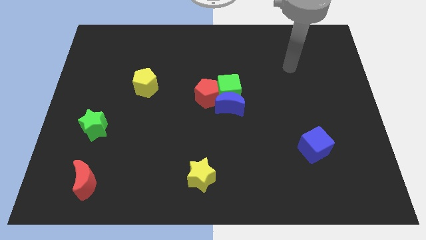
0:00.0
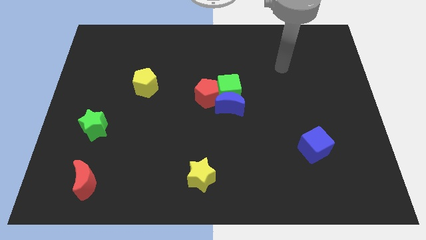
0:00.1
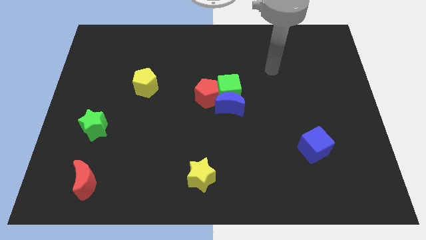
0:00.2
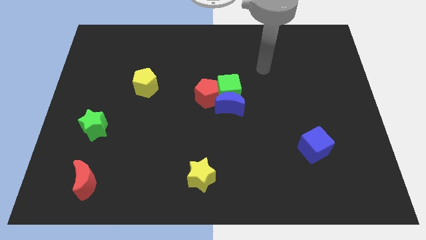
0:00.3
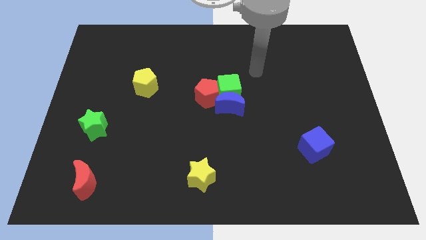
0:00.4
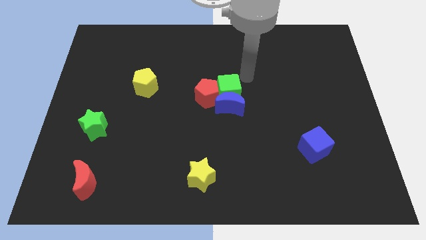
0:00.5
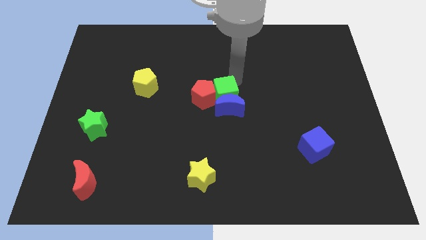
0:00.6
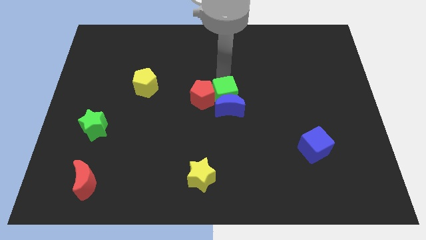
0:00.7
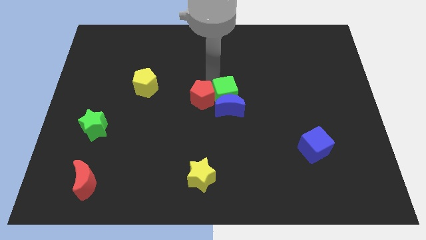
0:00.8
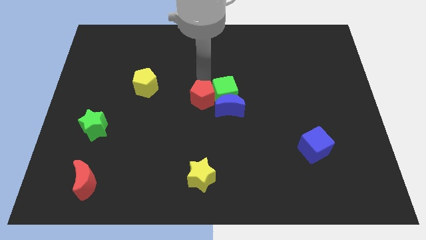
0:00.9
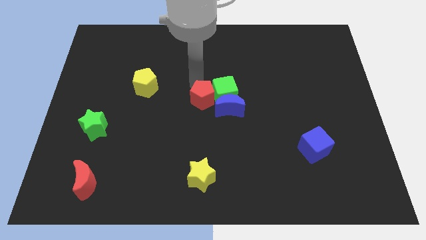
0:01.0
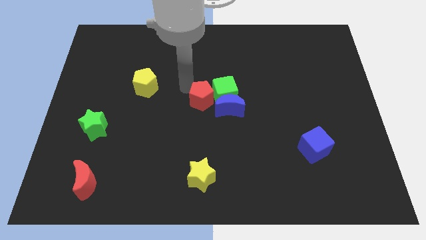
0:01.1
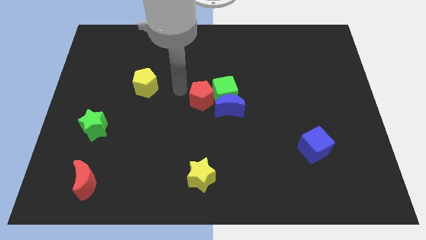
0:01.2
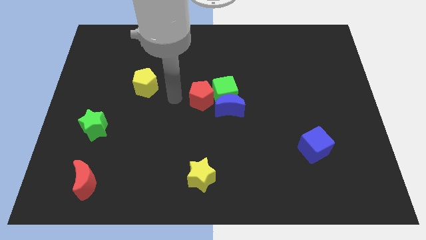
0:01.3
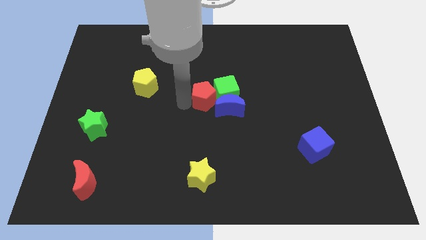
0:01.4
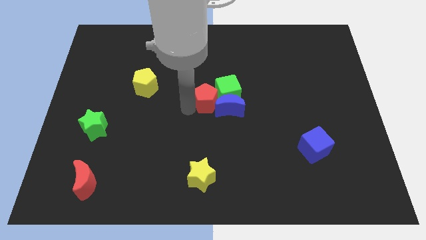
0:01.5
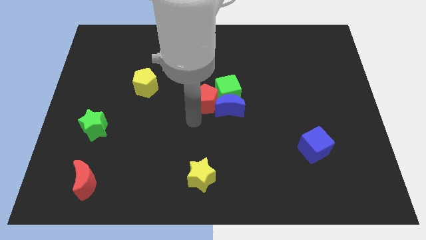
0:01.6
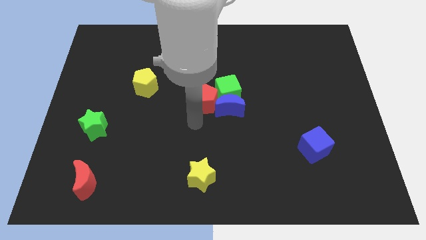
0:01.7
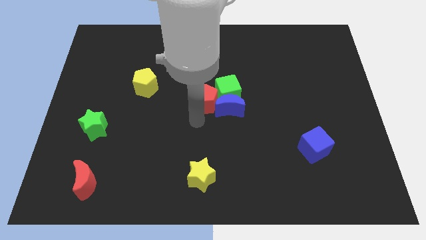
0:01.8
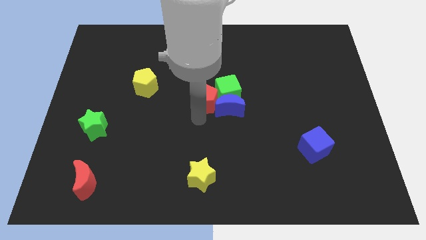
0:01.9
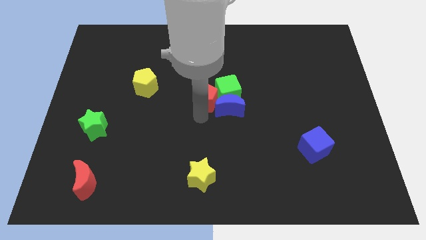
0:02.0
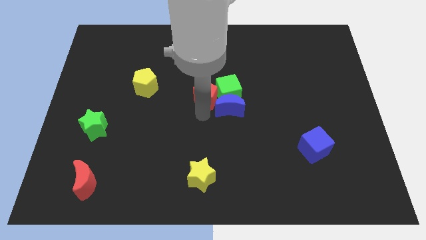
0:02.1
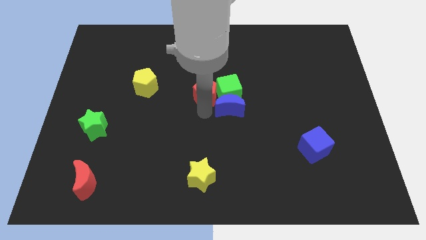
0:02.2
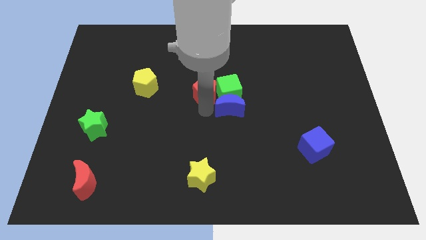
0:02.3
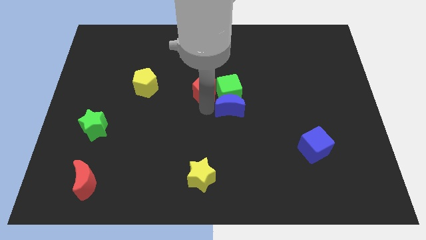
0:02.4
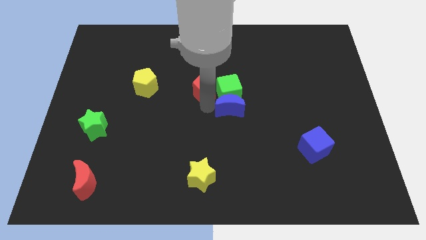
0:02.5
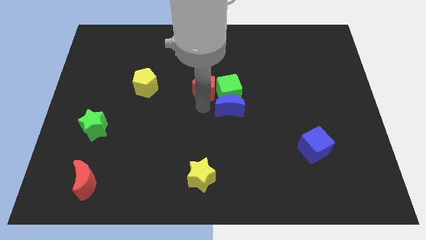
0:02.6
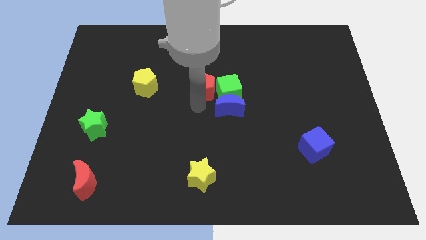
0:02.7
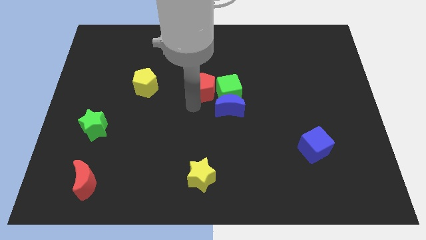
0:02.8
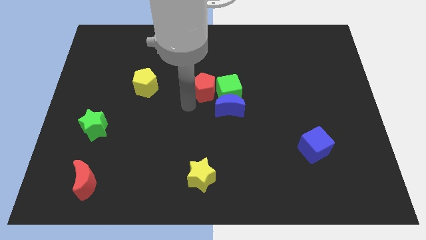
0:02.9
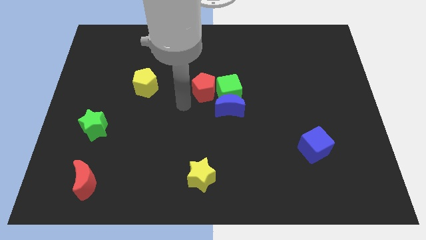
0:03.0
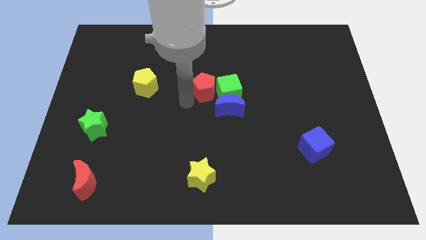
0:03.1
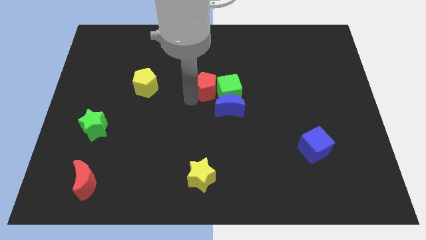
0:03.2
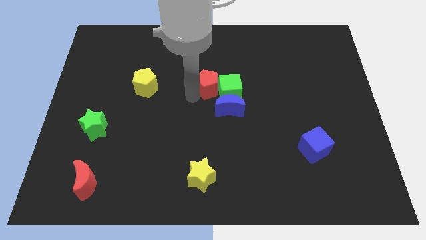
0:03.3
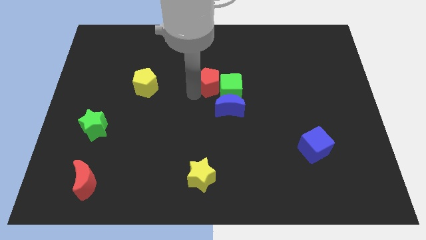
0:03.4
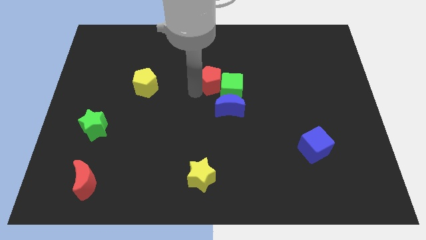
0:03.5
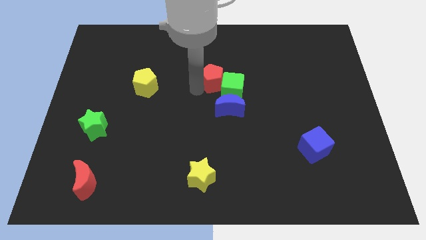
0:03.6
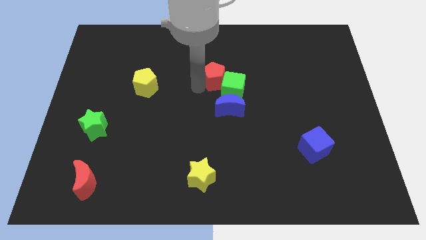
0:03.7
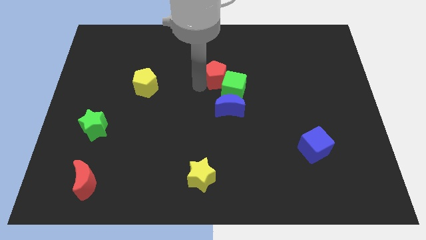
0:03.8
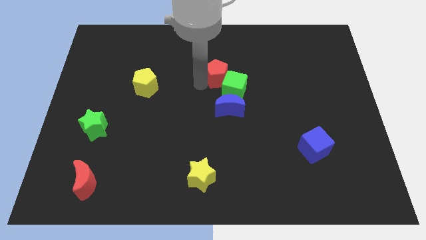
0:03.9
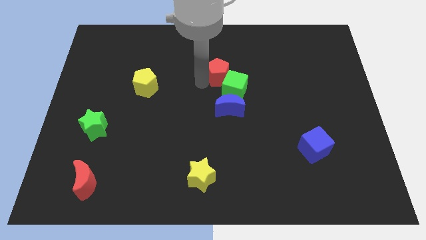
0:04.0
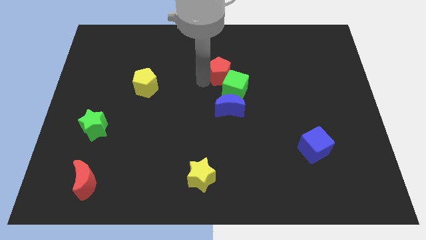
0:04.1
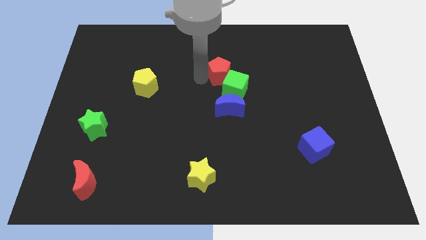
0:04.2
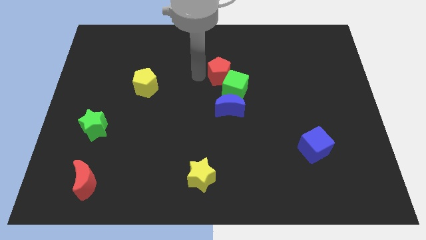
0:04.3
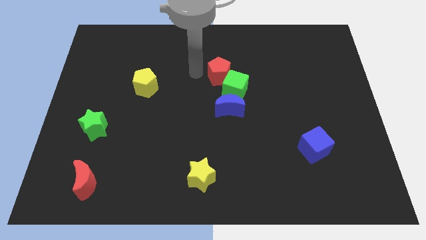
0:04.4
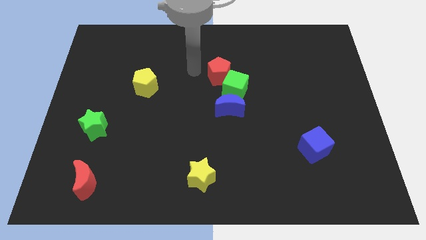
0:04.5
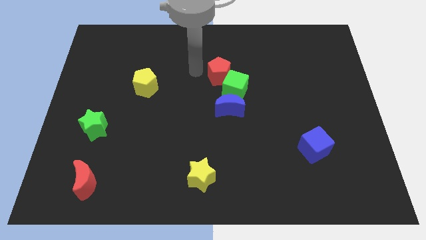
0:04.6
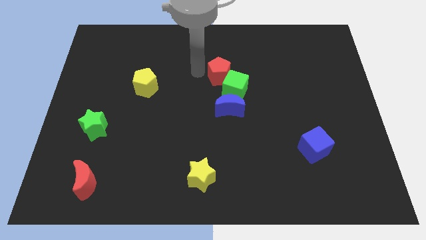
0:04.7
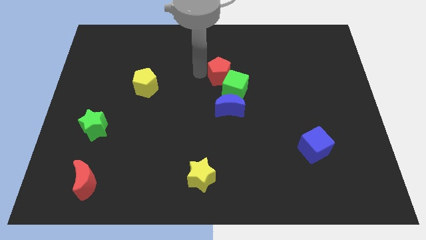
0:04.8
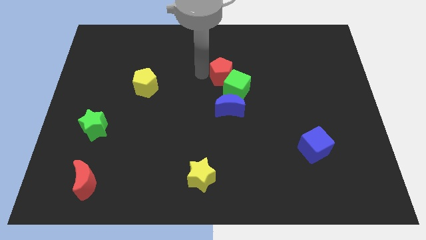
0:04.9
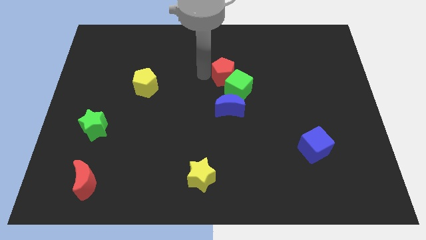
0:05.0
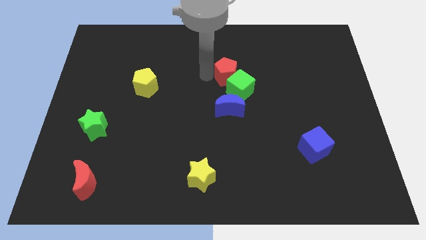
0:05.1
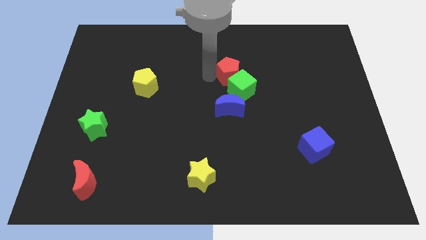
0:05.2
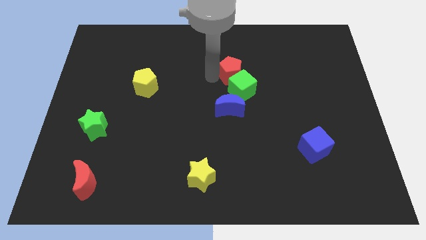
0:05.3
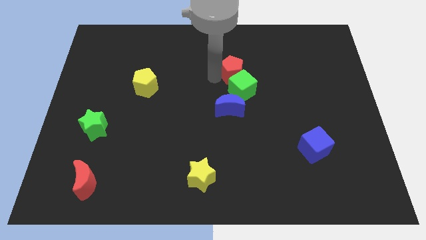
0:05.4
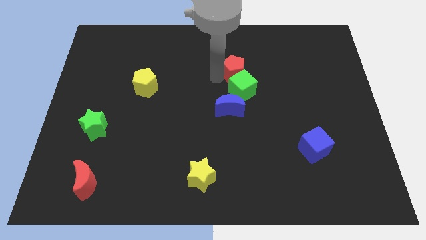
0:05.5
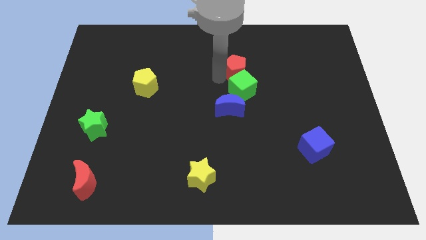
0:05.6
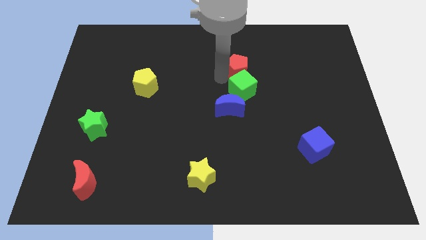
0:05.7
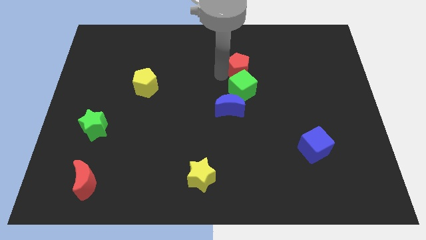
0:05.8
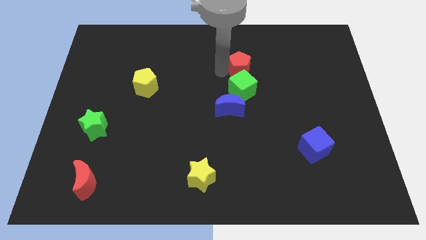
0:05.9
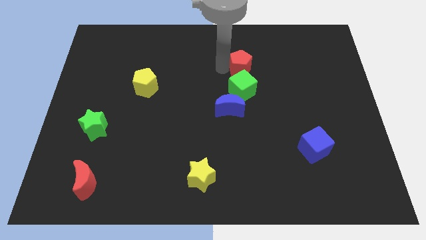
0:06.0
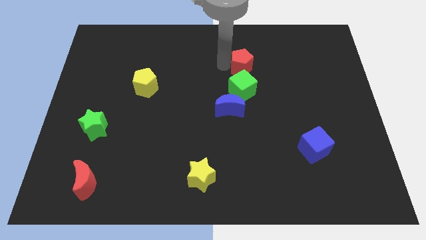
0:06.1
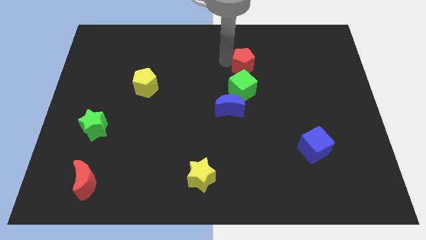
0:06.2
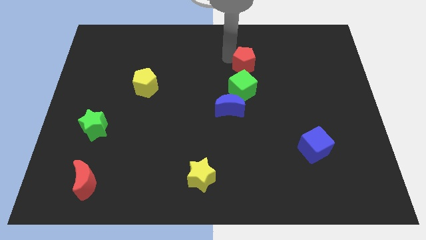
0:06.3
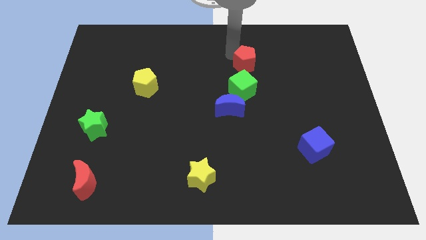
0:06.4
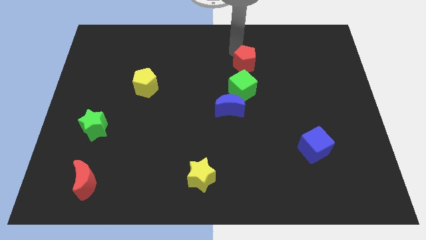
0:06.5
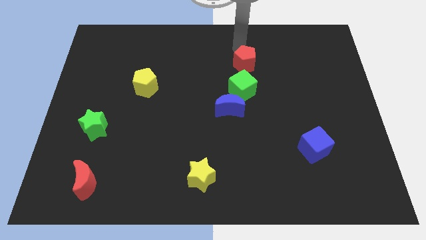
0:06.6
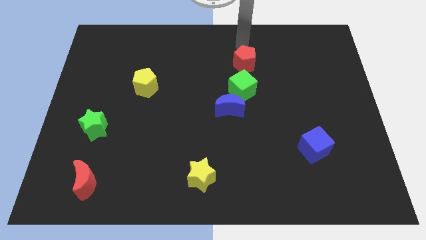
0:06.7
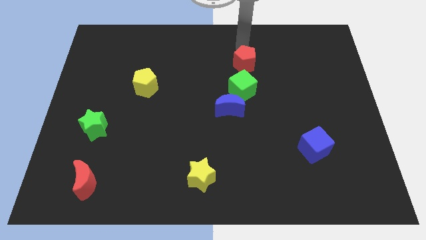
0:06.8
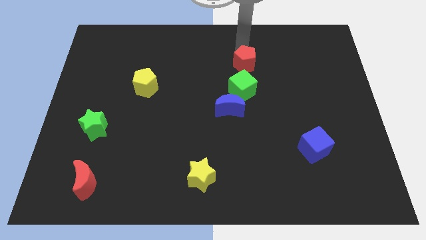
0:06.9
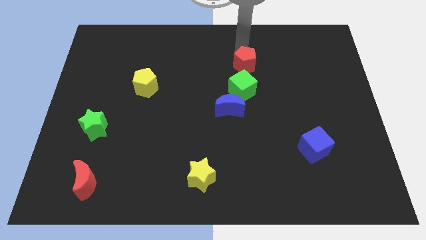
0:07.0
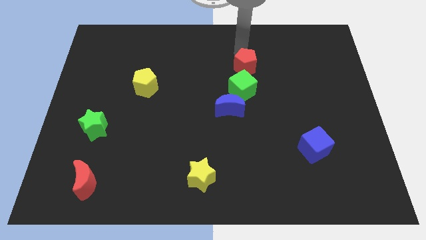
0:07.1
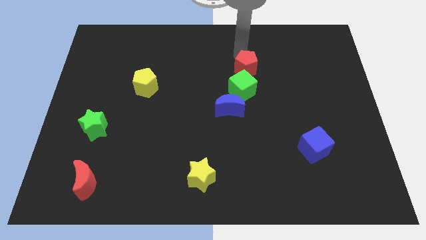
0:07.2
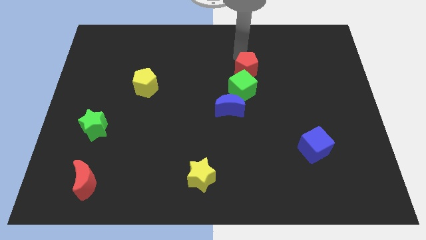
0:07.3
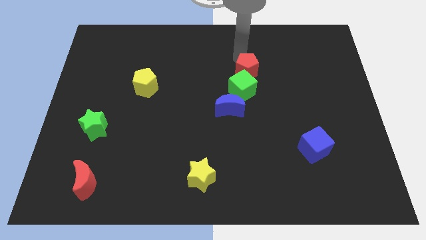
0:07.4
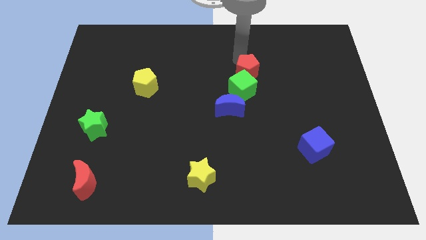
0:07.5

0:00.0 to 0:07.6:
slightly move the red pentagon right

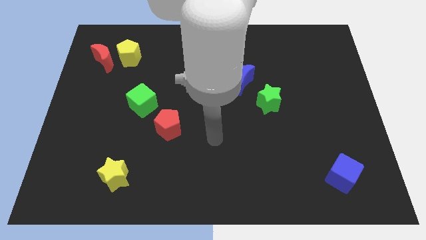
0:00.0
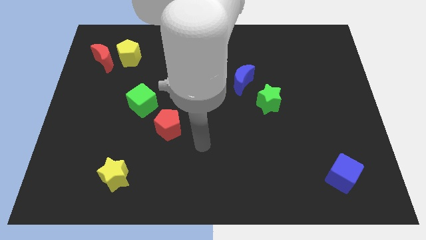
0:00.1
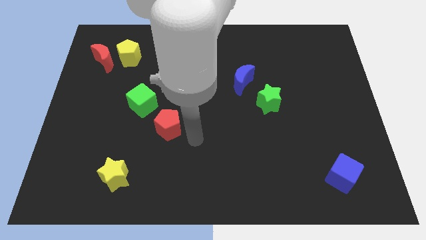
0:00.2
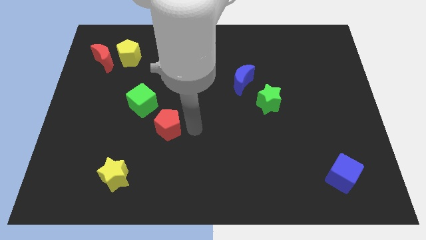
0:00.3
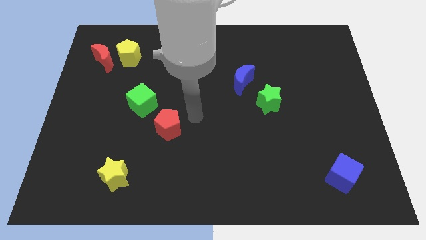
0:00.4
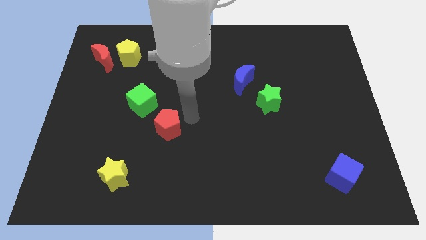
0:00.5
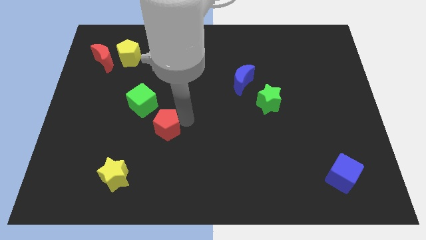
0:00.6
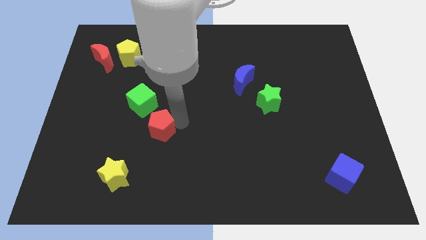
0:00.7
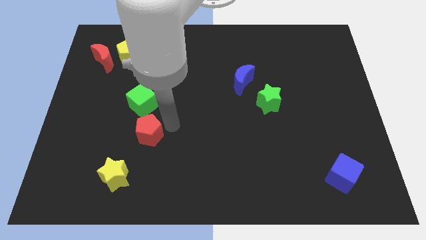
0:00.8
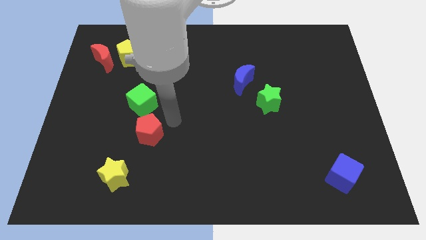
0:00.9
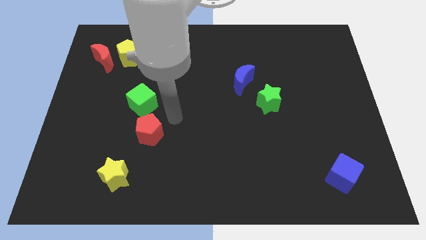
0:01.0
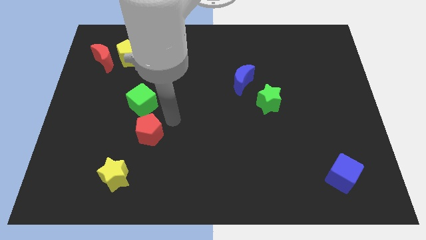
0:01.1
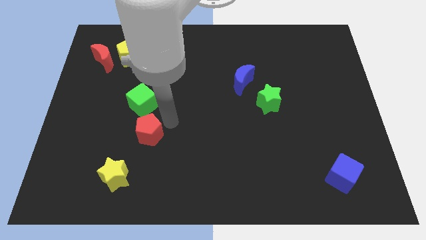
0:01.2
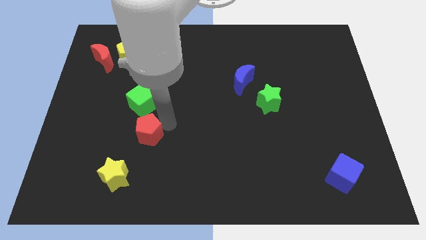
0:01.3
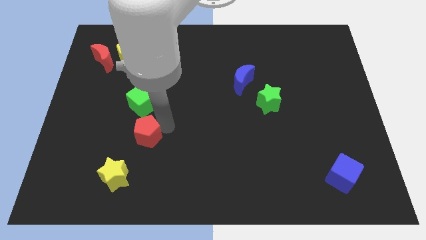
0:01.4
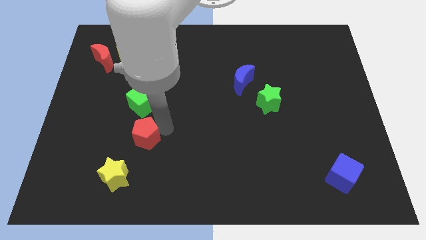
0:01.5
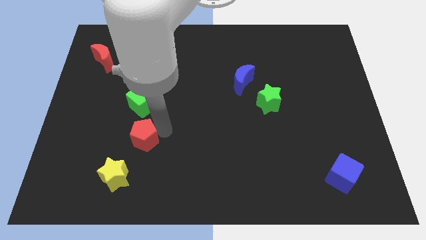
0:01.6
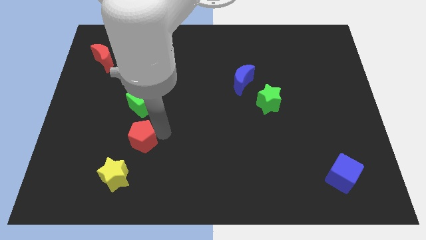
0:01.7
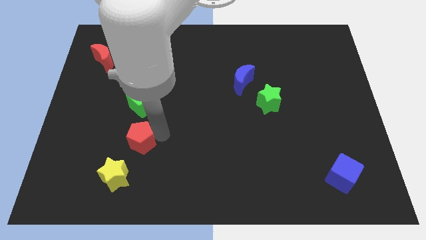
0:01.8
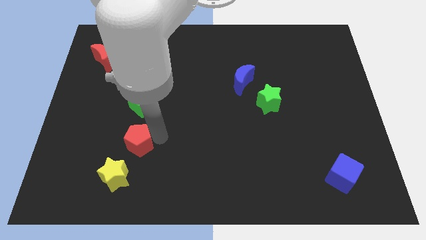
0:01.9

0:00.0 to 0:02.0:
move the red pentagon slightly down and to the left
